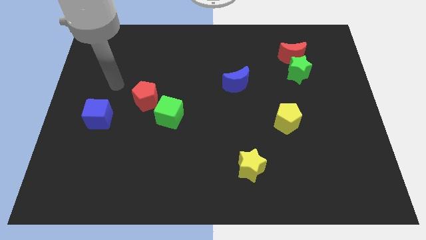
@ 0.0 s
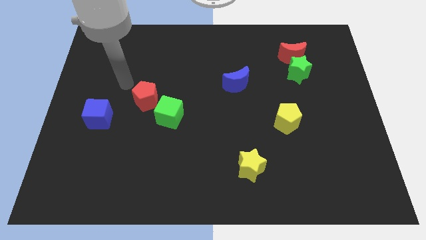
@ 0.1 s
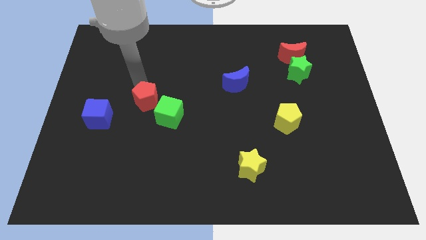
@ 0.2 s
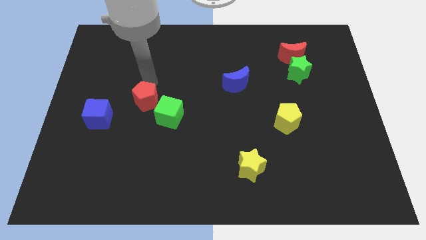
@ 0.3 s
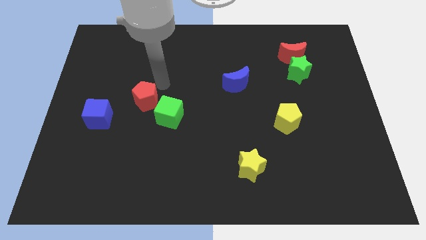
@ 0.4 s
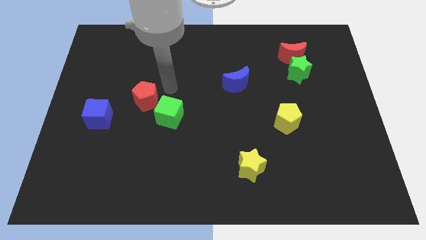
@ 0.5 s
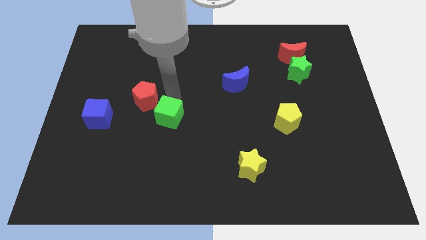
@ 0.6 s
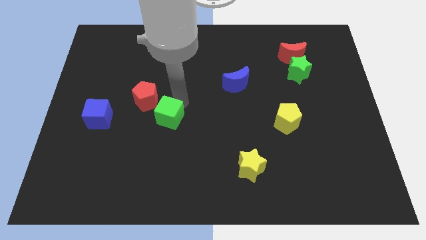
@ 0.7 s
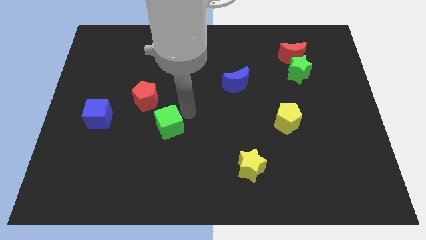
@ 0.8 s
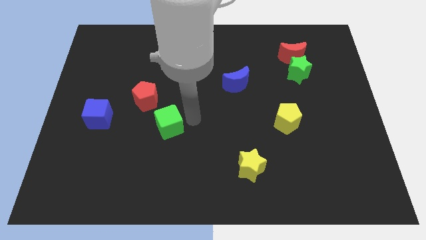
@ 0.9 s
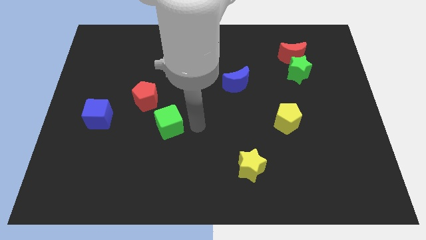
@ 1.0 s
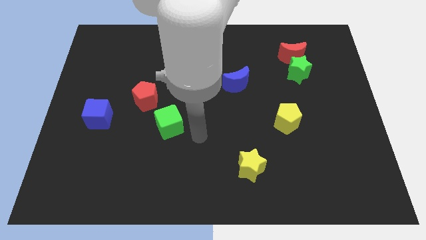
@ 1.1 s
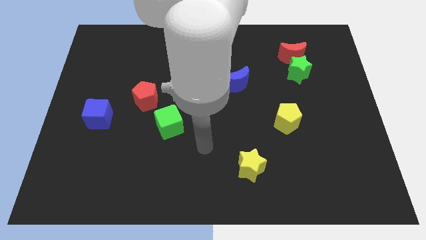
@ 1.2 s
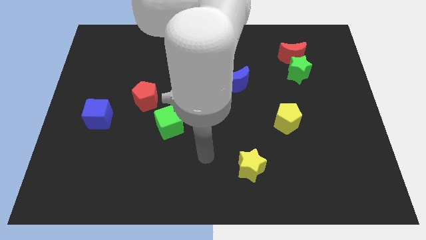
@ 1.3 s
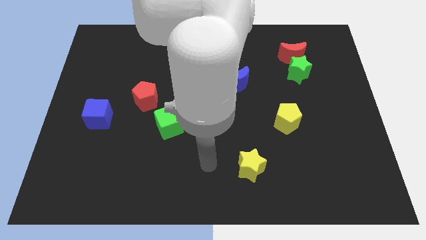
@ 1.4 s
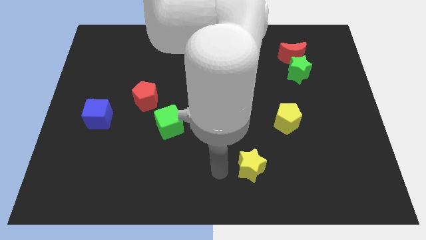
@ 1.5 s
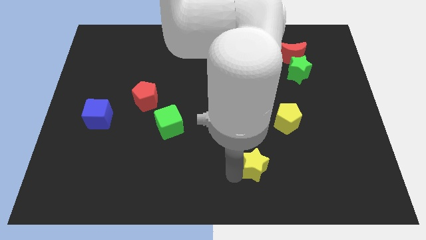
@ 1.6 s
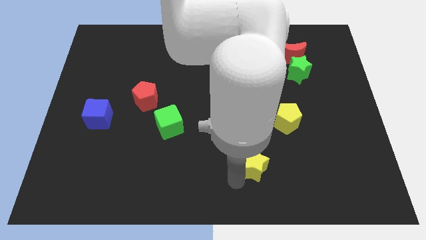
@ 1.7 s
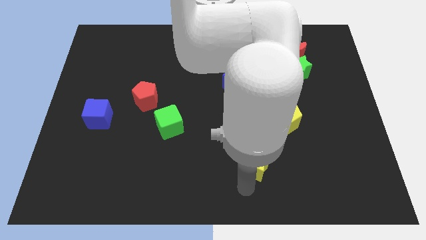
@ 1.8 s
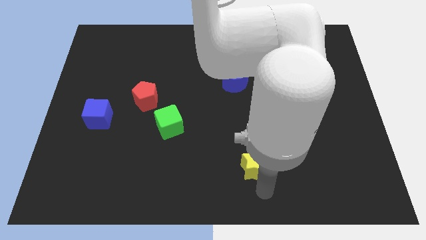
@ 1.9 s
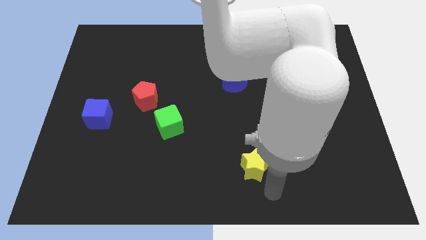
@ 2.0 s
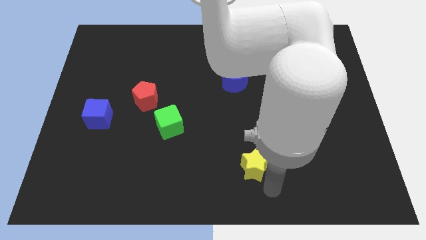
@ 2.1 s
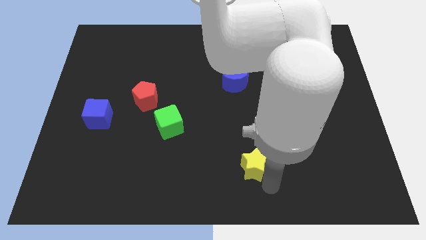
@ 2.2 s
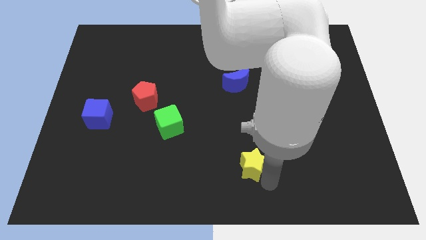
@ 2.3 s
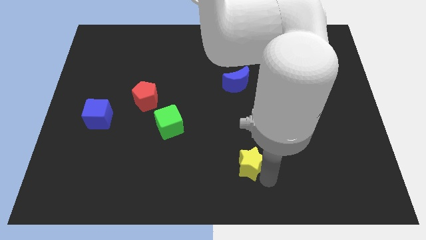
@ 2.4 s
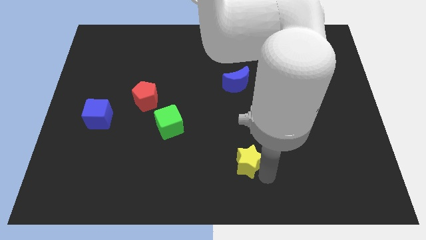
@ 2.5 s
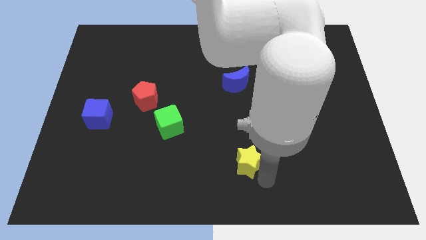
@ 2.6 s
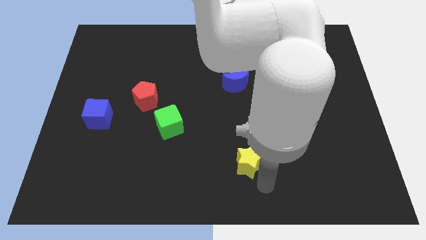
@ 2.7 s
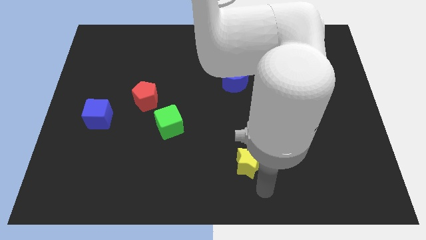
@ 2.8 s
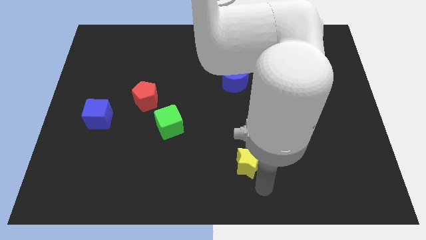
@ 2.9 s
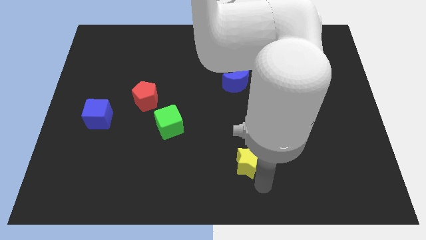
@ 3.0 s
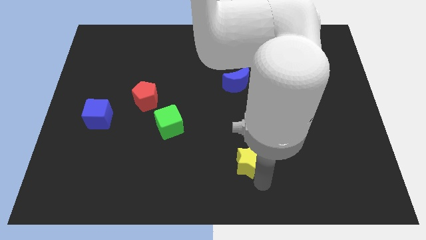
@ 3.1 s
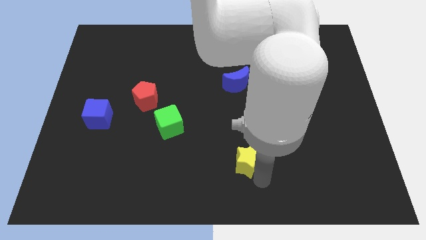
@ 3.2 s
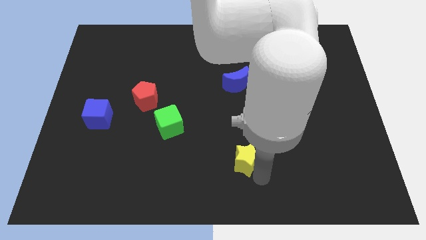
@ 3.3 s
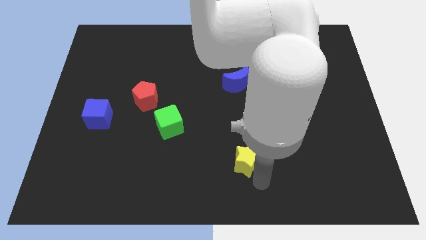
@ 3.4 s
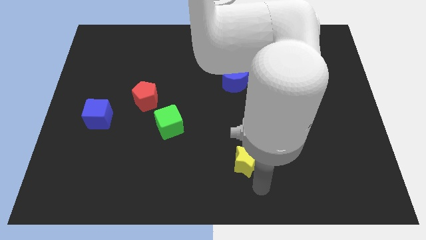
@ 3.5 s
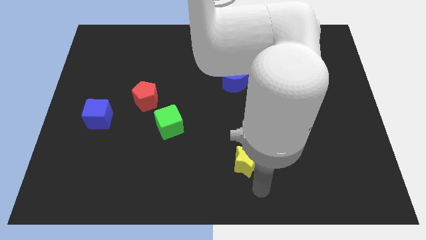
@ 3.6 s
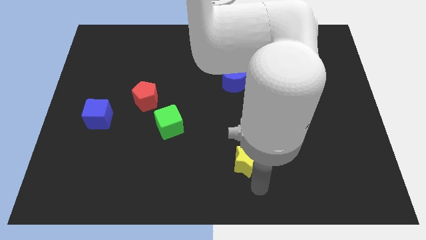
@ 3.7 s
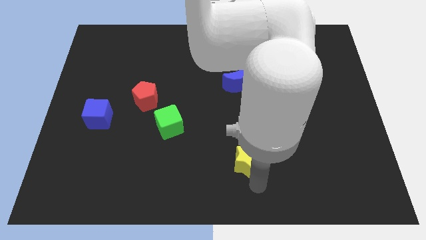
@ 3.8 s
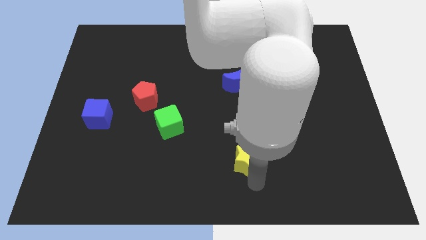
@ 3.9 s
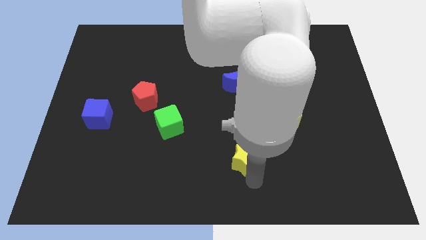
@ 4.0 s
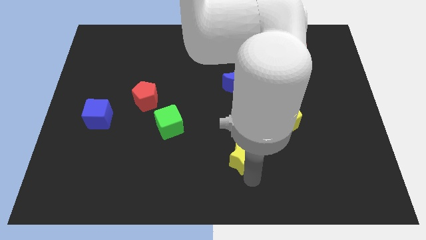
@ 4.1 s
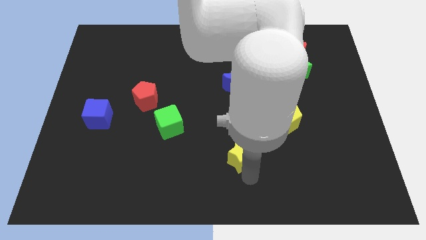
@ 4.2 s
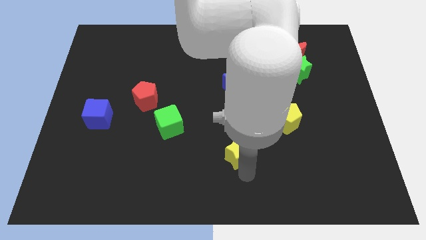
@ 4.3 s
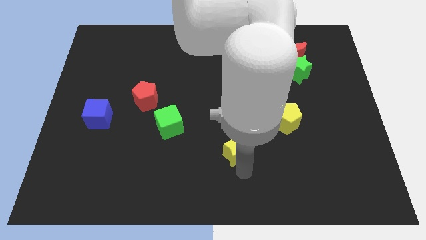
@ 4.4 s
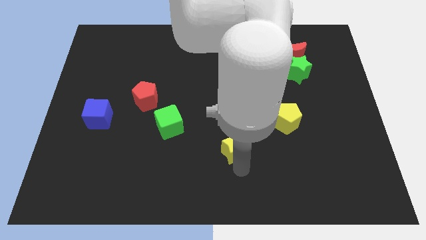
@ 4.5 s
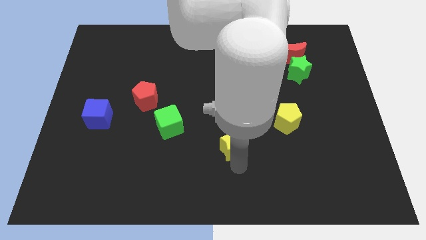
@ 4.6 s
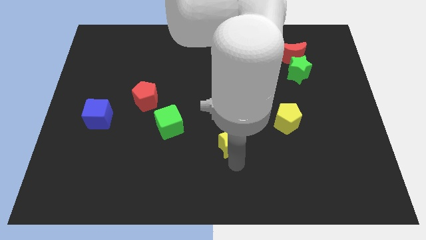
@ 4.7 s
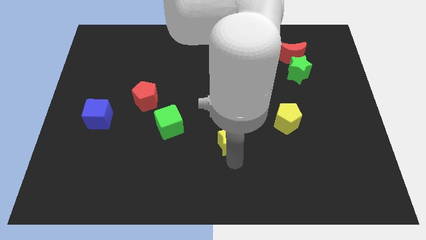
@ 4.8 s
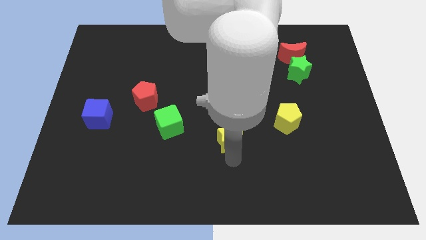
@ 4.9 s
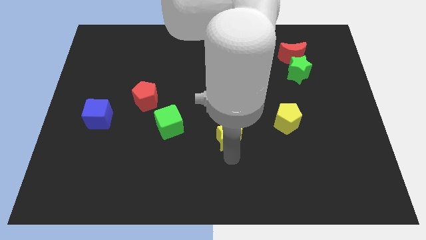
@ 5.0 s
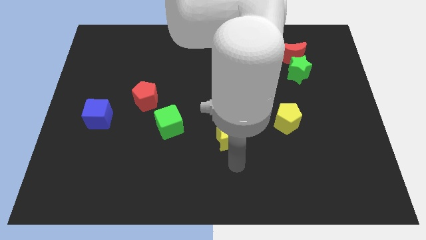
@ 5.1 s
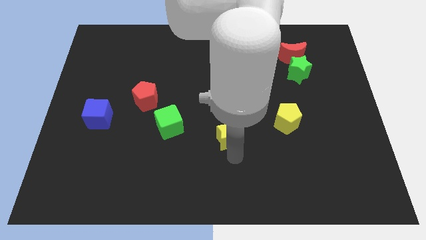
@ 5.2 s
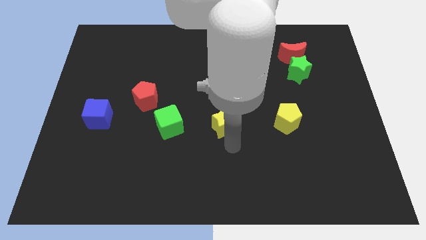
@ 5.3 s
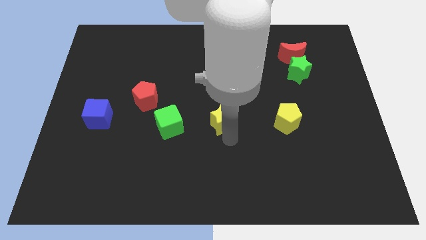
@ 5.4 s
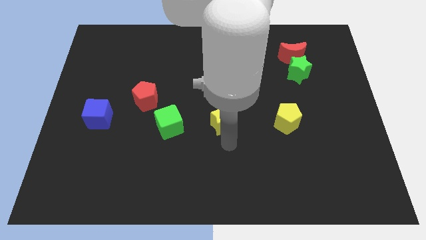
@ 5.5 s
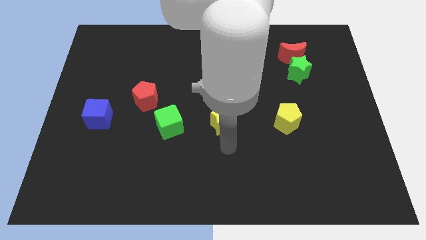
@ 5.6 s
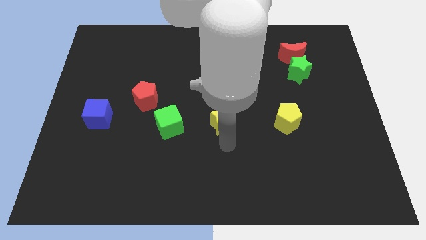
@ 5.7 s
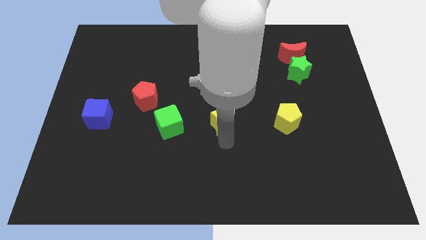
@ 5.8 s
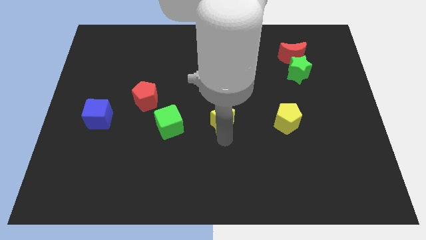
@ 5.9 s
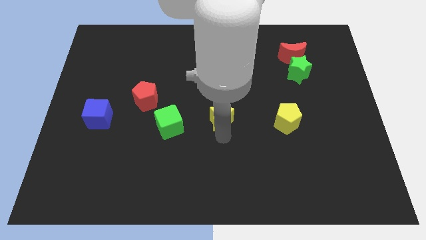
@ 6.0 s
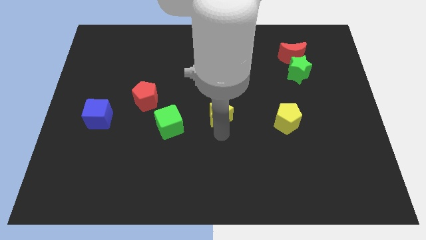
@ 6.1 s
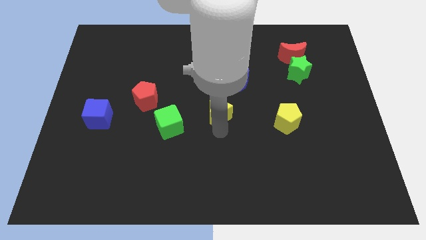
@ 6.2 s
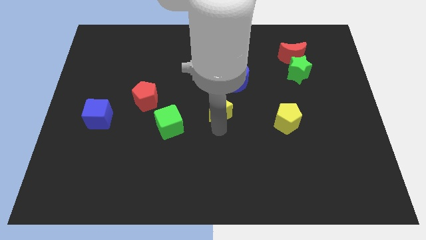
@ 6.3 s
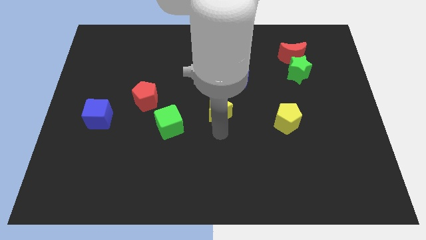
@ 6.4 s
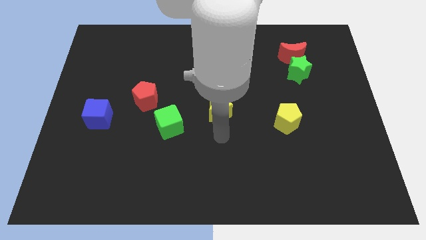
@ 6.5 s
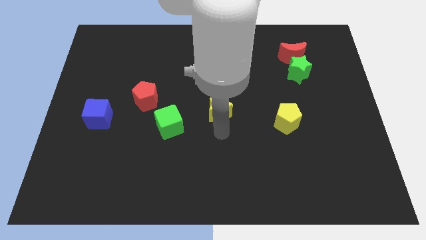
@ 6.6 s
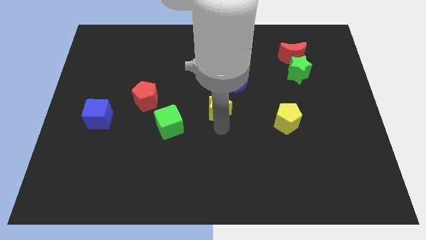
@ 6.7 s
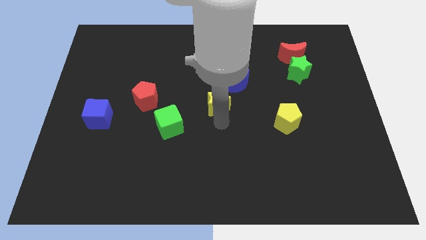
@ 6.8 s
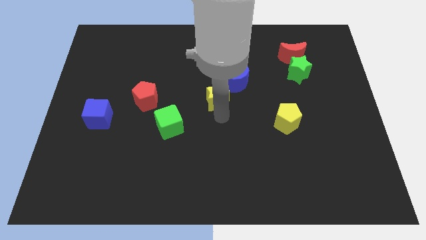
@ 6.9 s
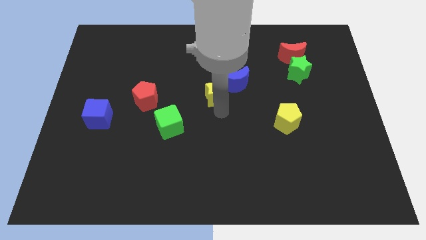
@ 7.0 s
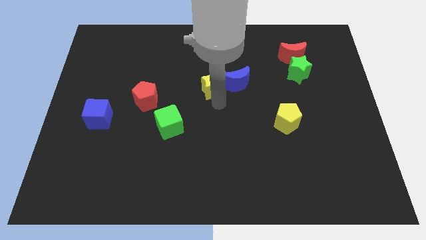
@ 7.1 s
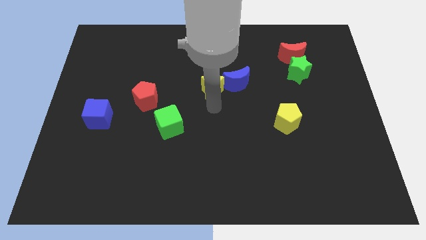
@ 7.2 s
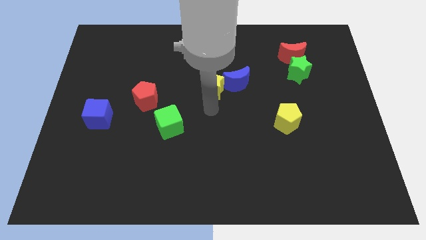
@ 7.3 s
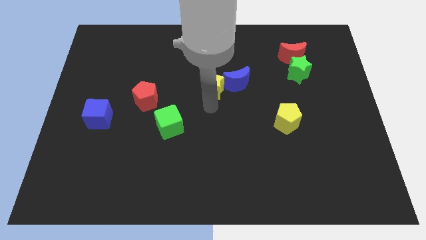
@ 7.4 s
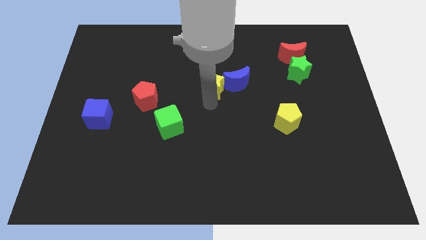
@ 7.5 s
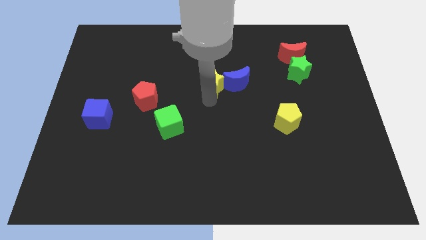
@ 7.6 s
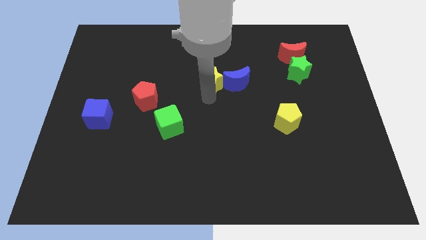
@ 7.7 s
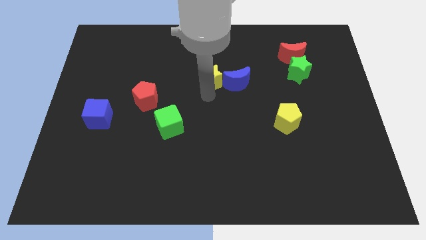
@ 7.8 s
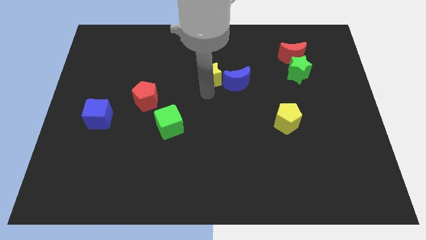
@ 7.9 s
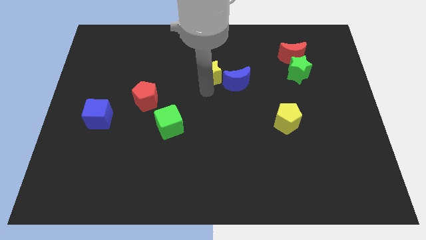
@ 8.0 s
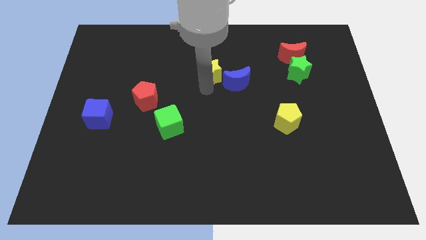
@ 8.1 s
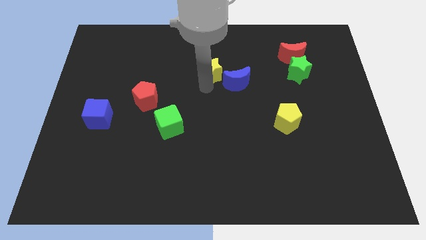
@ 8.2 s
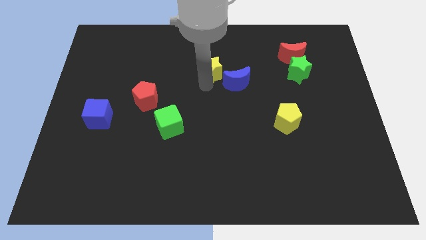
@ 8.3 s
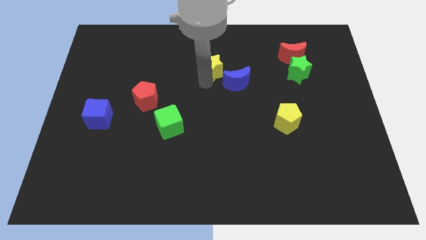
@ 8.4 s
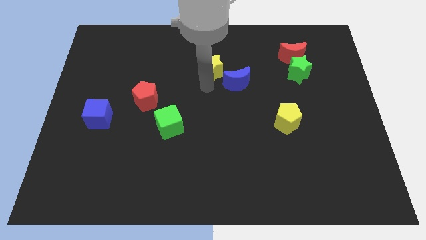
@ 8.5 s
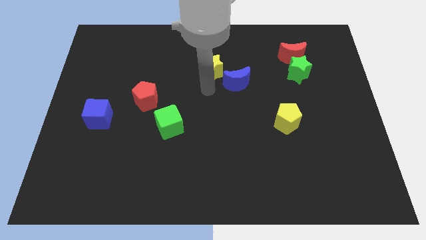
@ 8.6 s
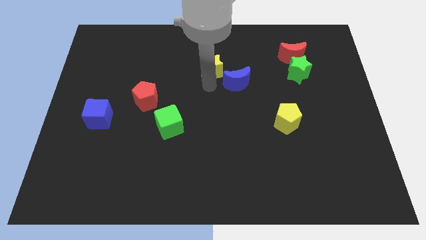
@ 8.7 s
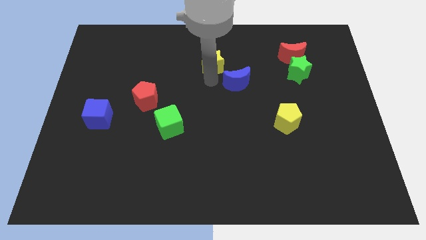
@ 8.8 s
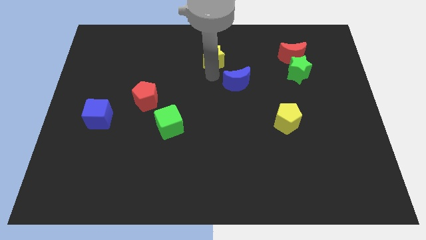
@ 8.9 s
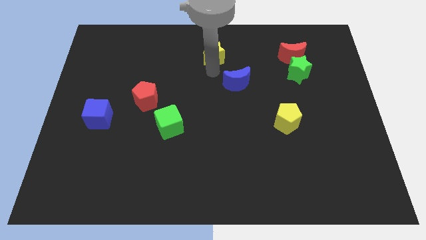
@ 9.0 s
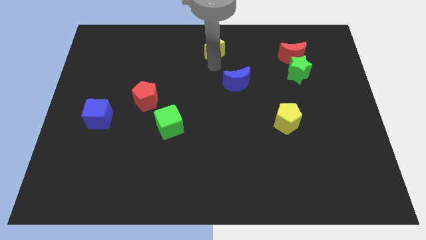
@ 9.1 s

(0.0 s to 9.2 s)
put the yellow star to the top
